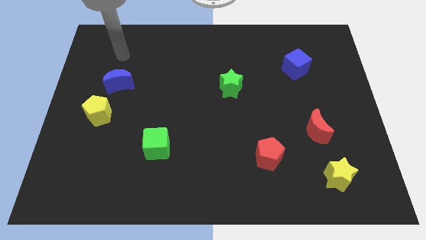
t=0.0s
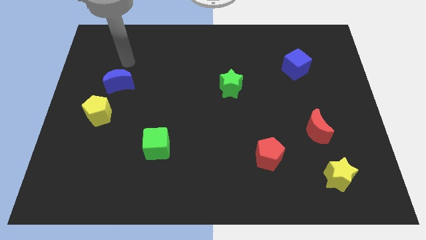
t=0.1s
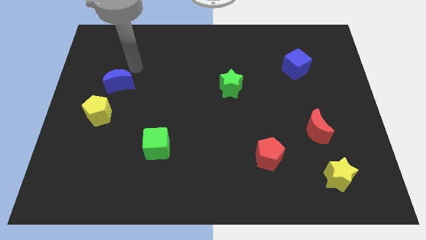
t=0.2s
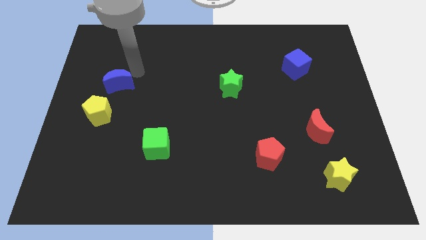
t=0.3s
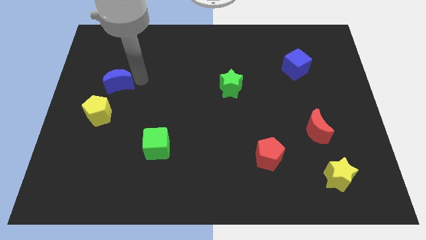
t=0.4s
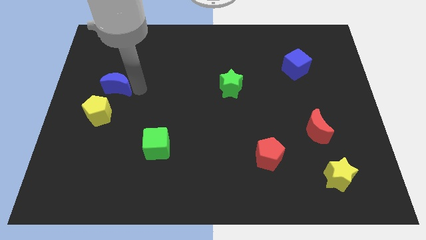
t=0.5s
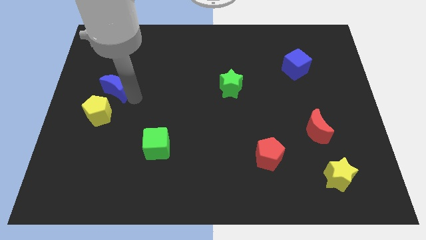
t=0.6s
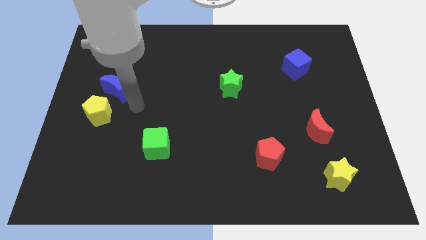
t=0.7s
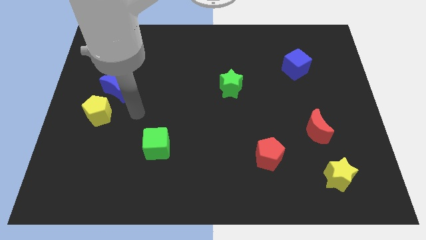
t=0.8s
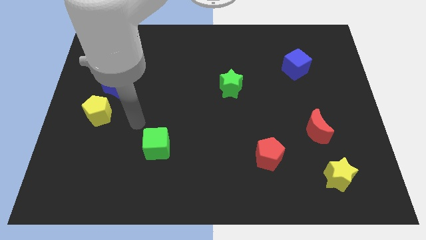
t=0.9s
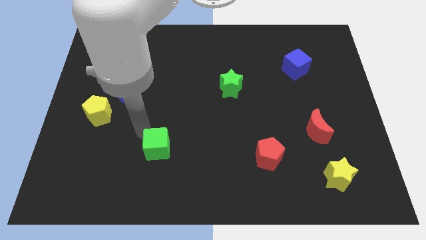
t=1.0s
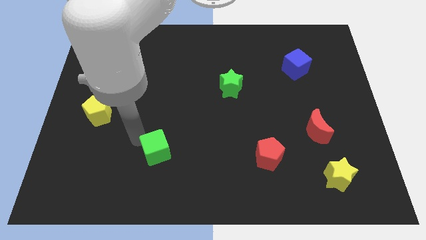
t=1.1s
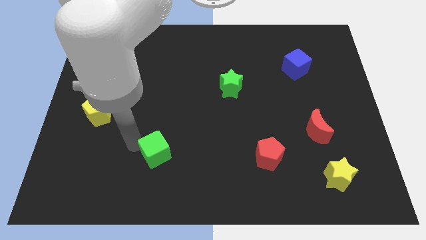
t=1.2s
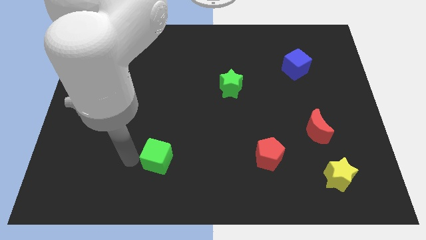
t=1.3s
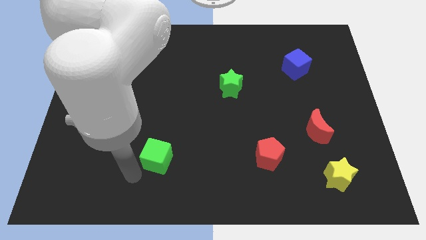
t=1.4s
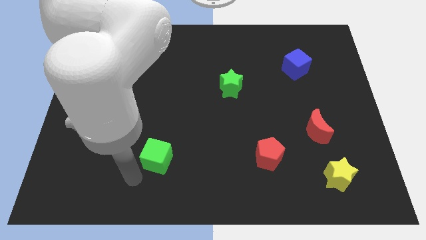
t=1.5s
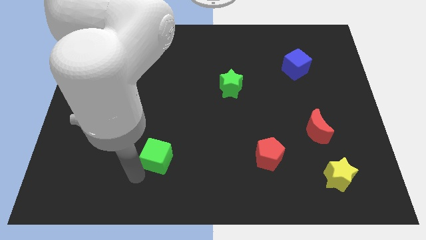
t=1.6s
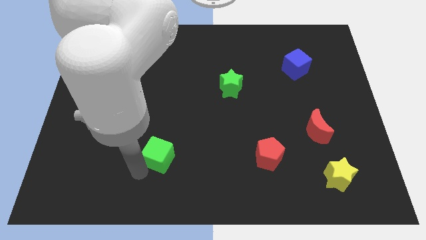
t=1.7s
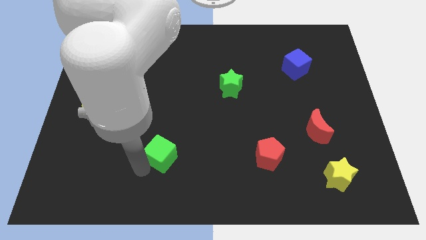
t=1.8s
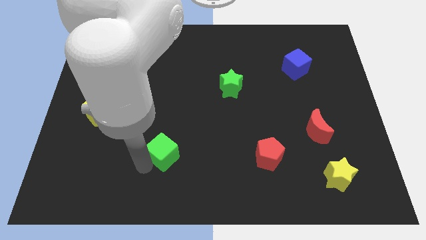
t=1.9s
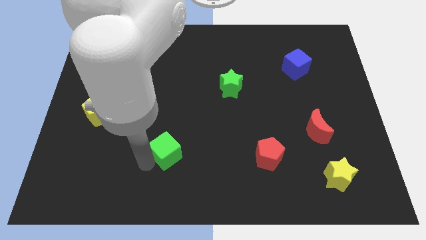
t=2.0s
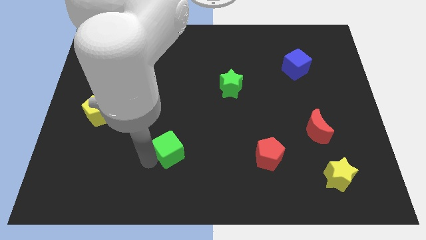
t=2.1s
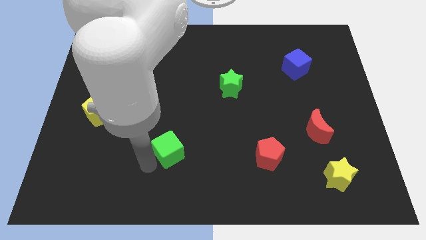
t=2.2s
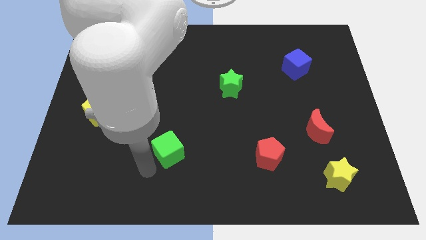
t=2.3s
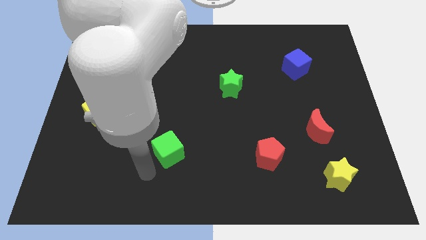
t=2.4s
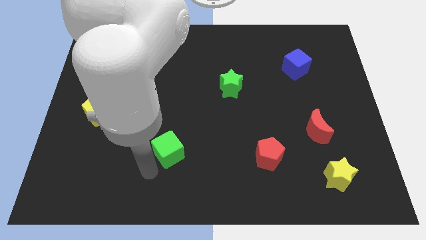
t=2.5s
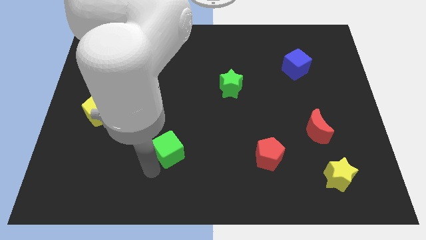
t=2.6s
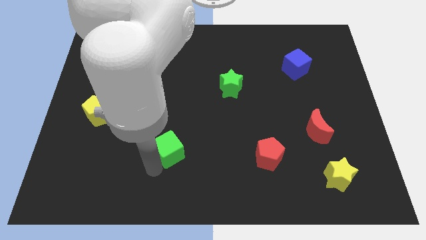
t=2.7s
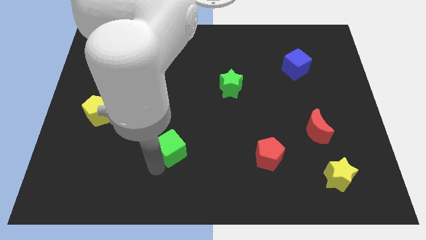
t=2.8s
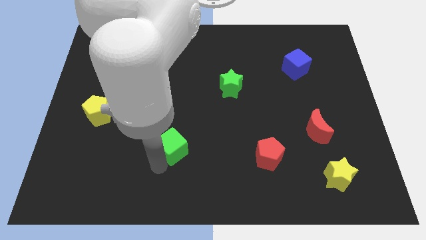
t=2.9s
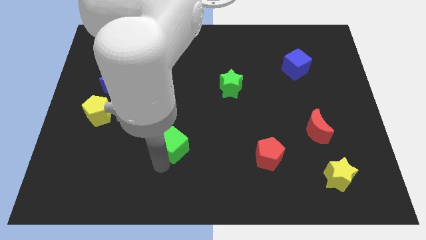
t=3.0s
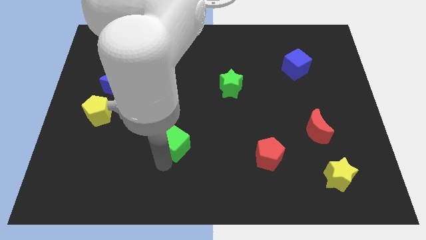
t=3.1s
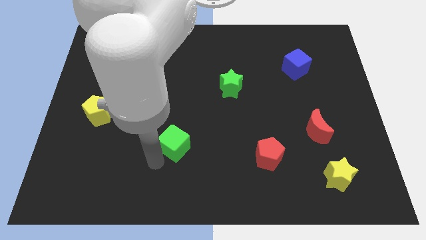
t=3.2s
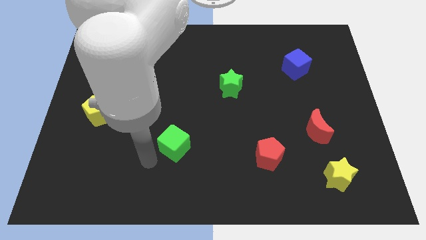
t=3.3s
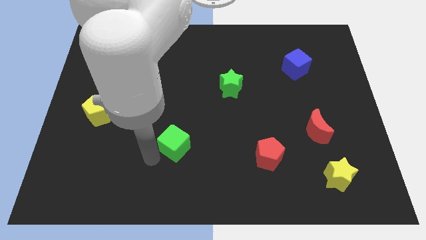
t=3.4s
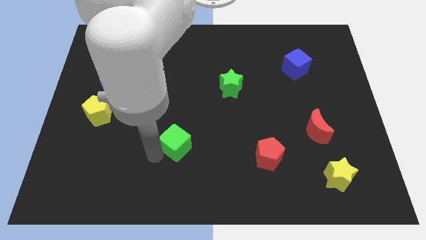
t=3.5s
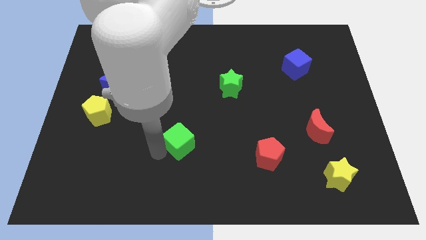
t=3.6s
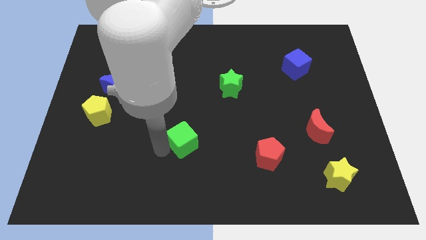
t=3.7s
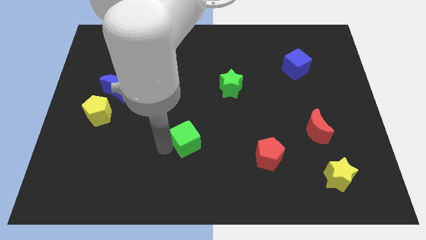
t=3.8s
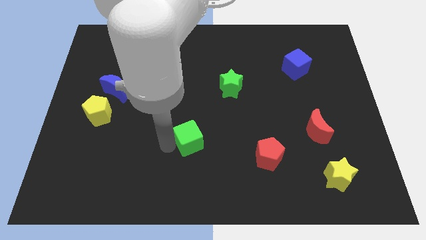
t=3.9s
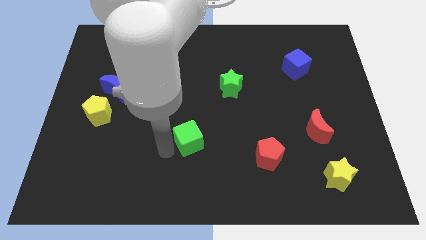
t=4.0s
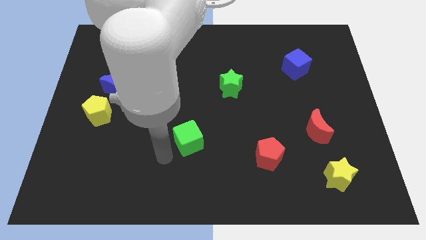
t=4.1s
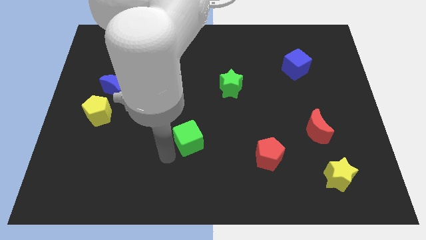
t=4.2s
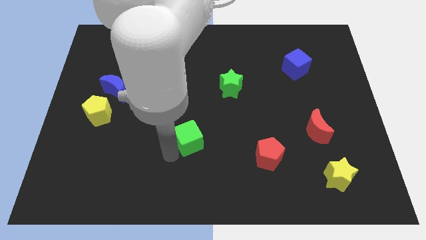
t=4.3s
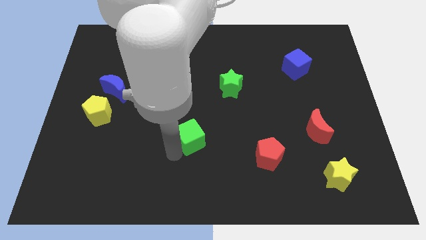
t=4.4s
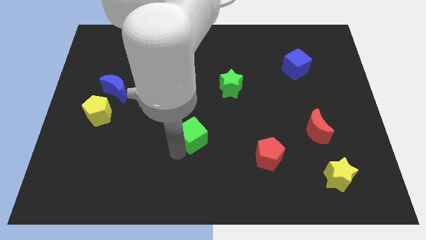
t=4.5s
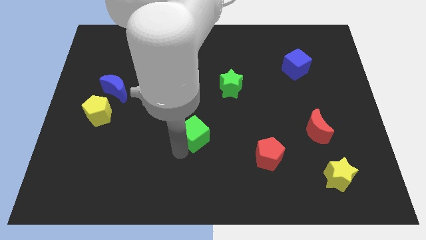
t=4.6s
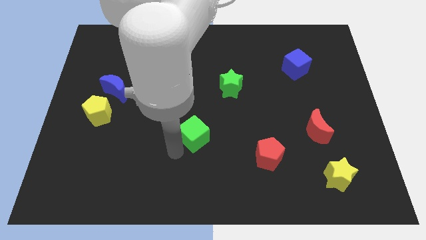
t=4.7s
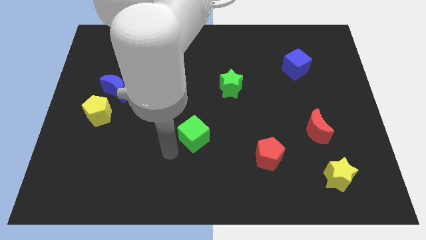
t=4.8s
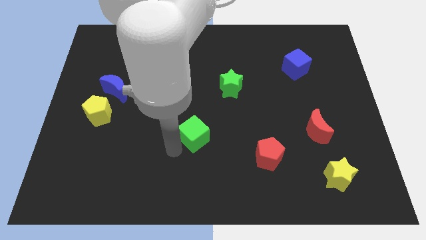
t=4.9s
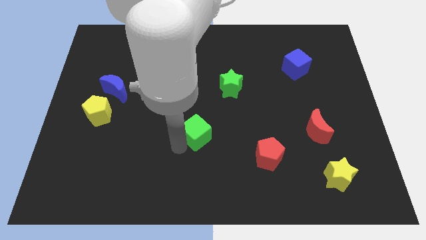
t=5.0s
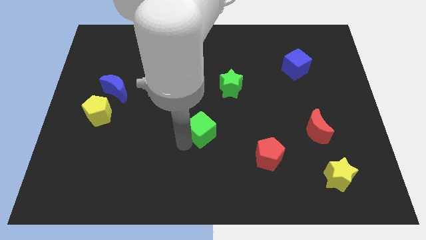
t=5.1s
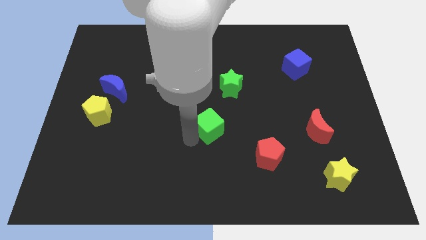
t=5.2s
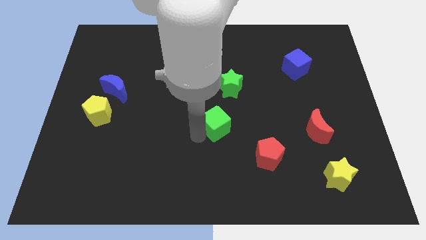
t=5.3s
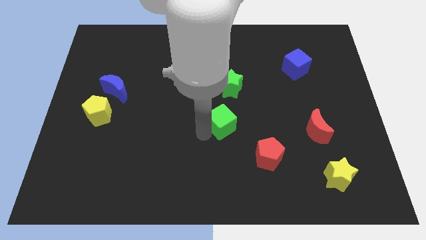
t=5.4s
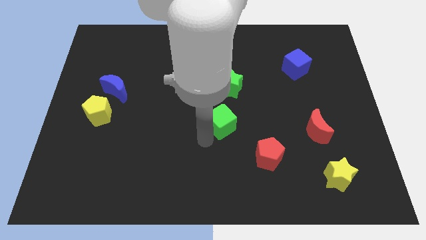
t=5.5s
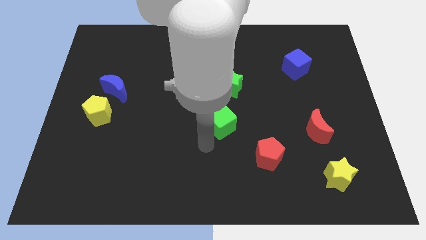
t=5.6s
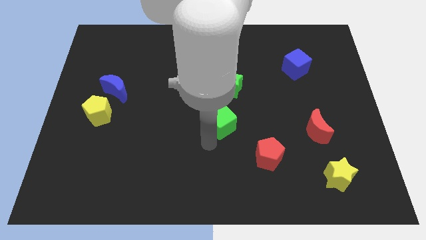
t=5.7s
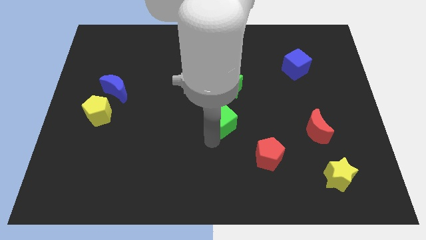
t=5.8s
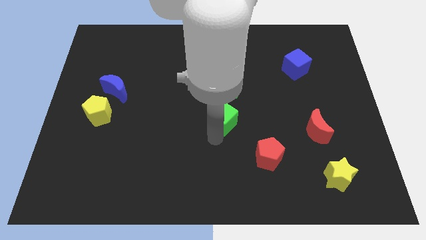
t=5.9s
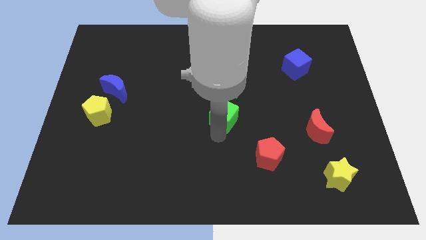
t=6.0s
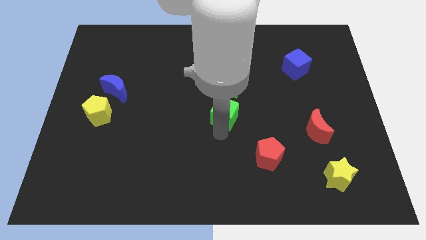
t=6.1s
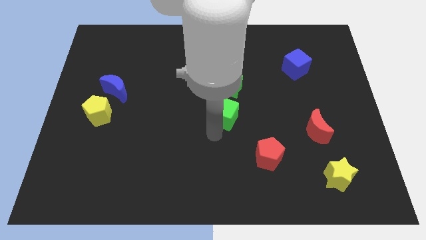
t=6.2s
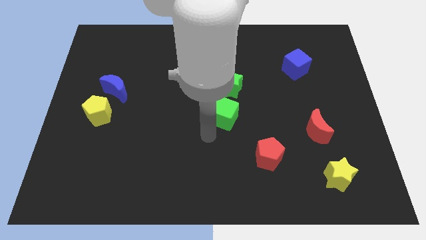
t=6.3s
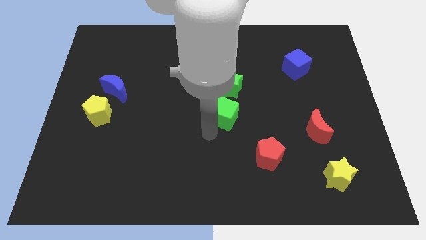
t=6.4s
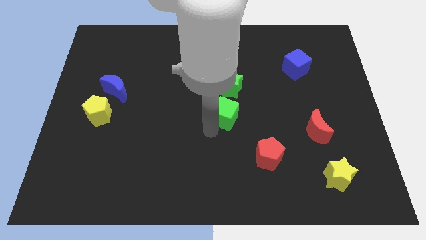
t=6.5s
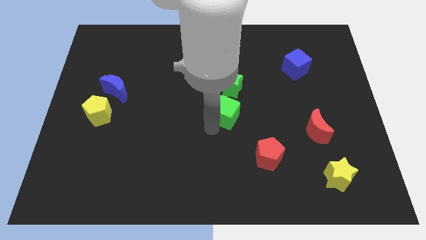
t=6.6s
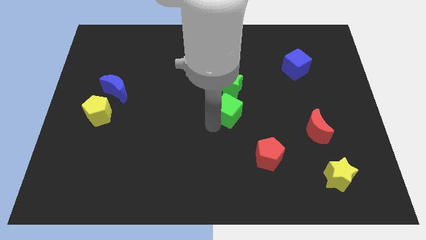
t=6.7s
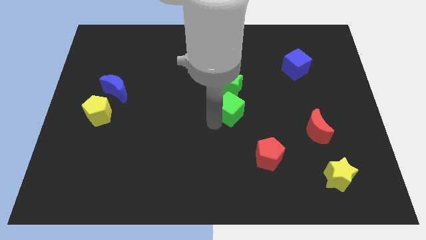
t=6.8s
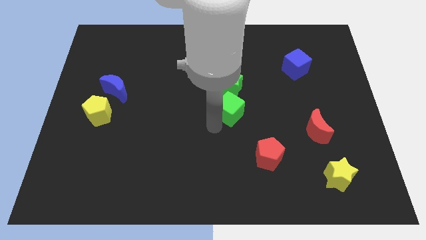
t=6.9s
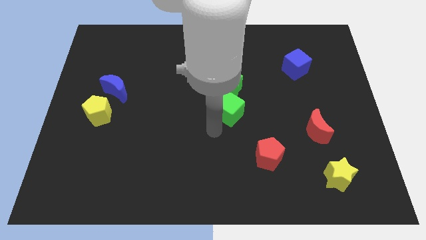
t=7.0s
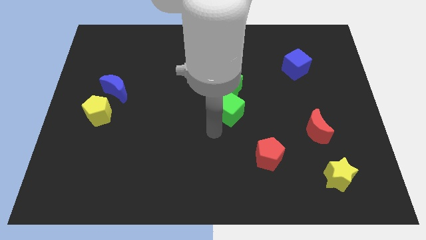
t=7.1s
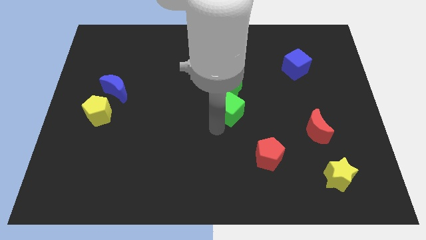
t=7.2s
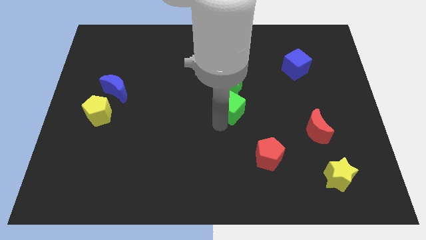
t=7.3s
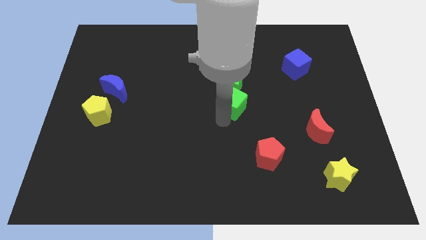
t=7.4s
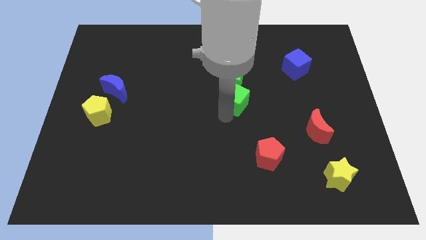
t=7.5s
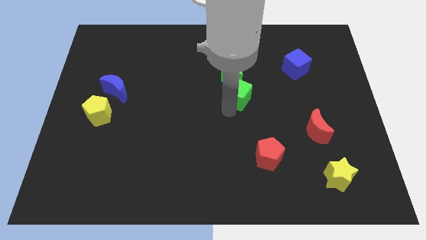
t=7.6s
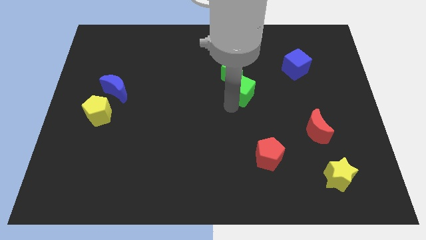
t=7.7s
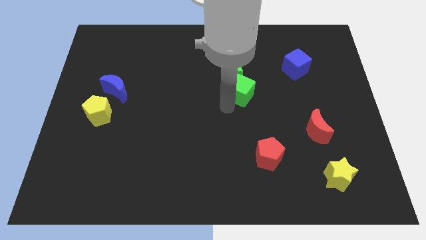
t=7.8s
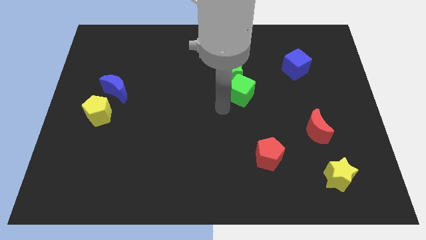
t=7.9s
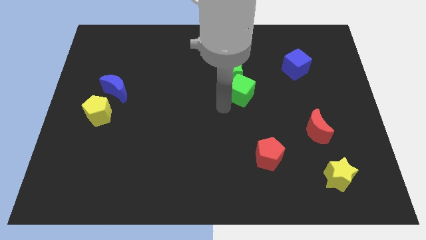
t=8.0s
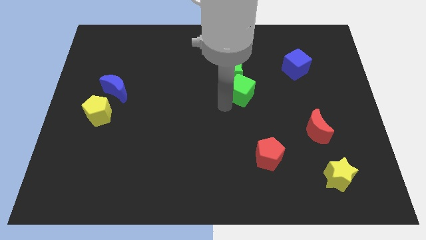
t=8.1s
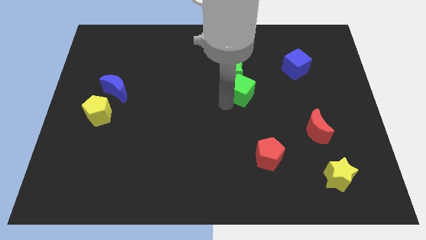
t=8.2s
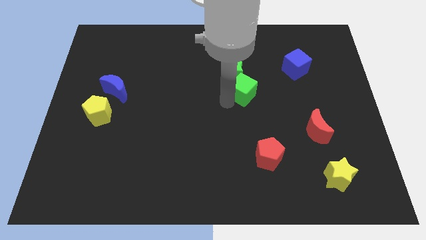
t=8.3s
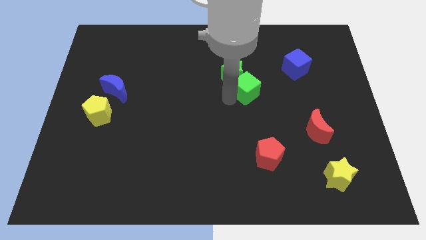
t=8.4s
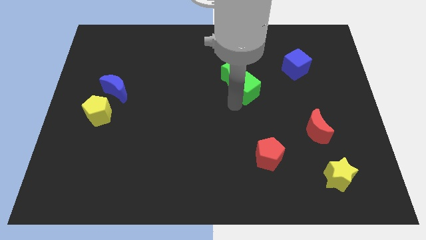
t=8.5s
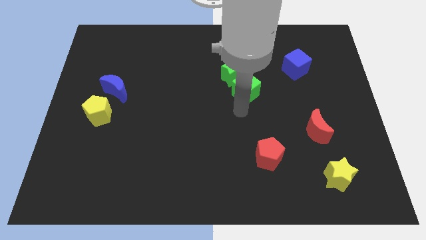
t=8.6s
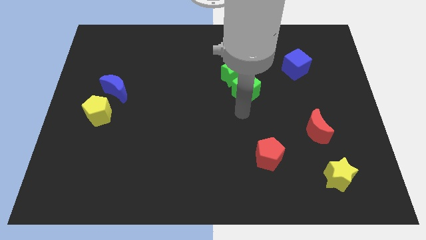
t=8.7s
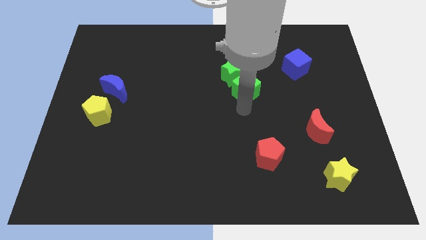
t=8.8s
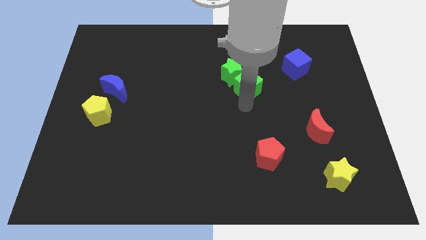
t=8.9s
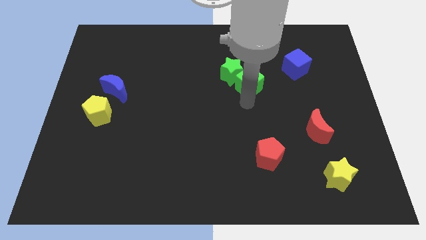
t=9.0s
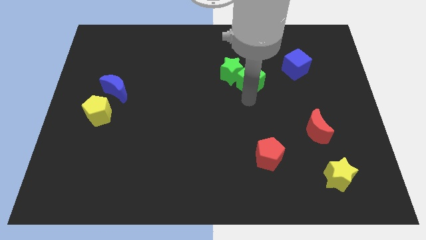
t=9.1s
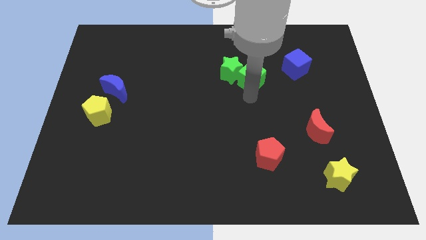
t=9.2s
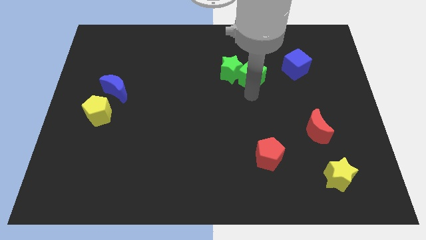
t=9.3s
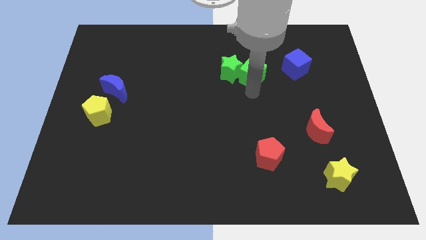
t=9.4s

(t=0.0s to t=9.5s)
push the green cube diagonally up and to the right of the green star
